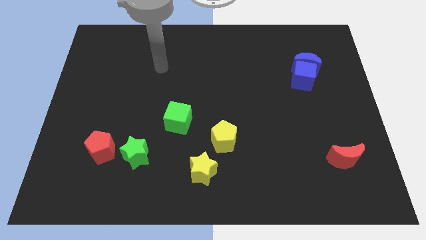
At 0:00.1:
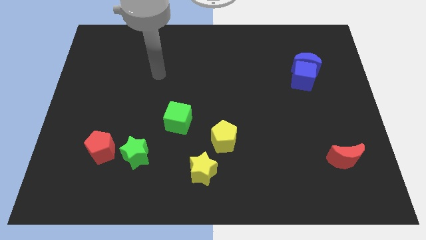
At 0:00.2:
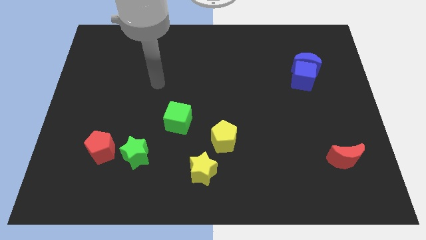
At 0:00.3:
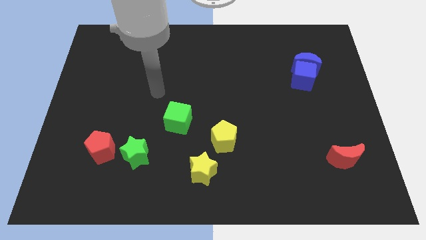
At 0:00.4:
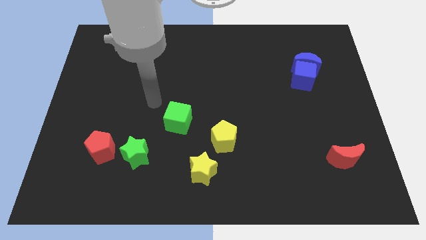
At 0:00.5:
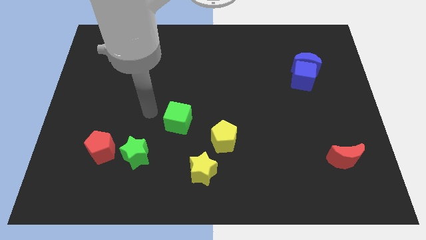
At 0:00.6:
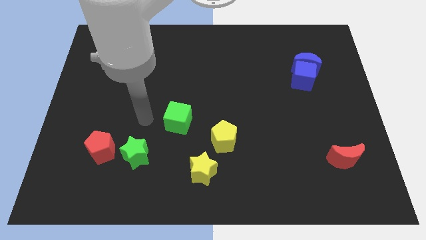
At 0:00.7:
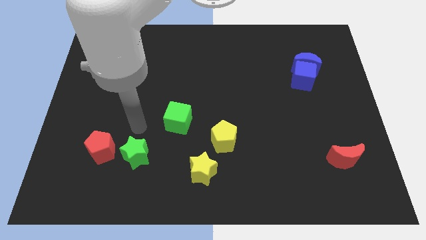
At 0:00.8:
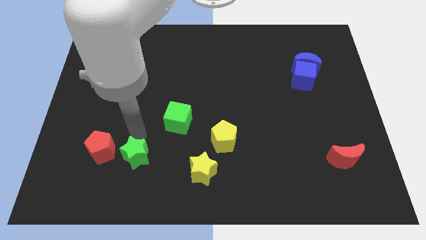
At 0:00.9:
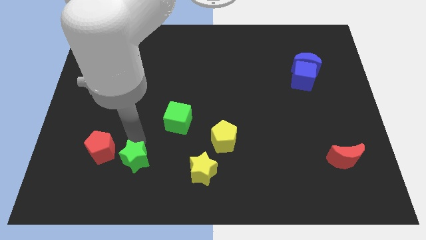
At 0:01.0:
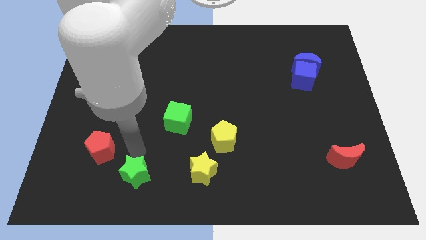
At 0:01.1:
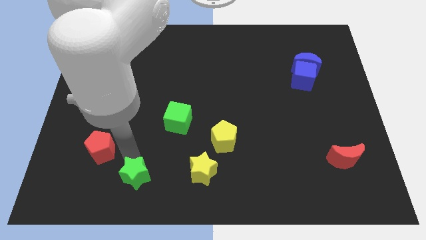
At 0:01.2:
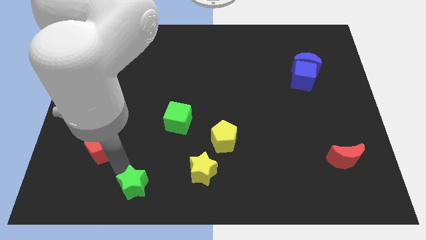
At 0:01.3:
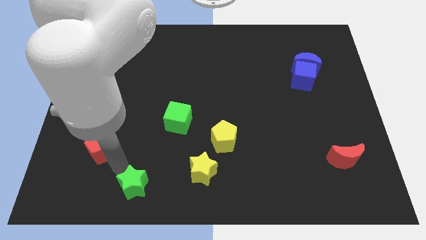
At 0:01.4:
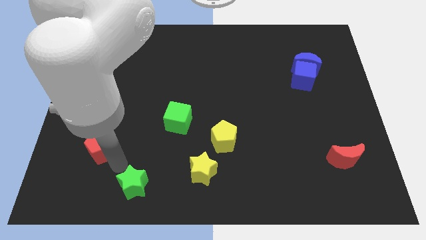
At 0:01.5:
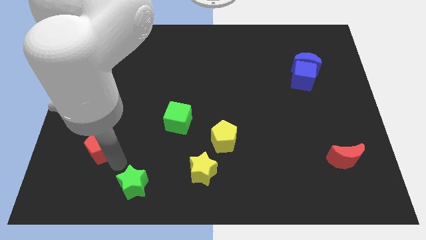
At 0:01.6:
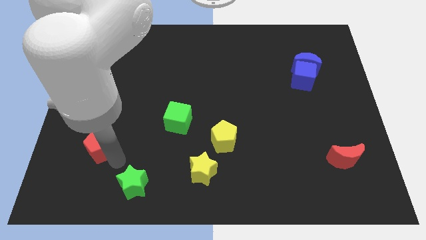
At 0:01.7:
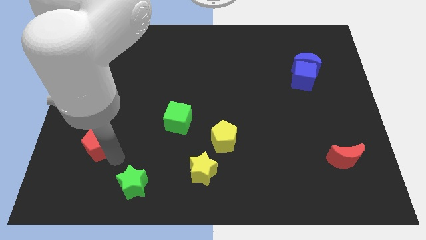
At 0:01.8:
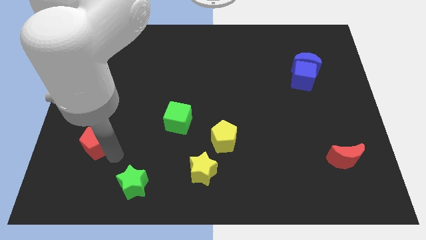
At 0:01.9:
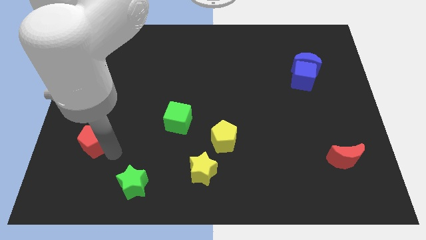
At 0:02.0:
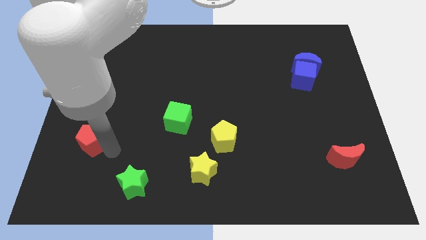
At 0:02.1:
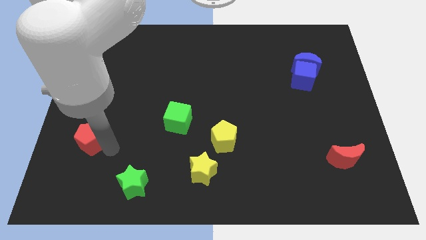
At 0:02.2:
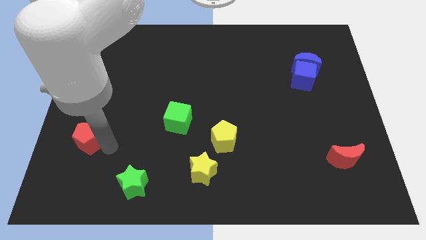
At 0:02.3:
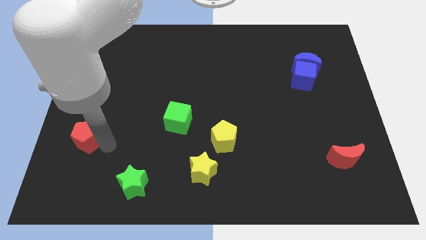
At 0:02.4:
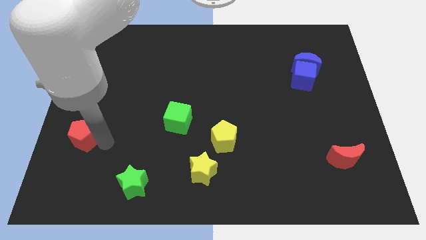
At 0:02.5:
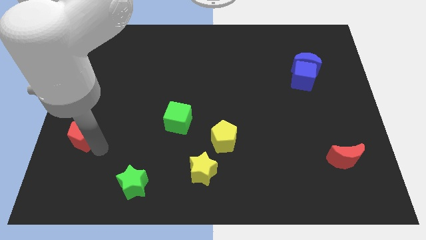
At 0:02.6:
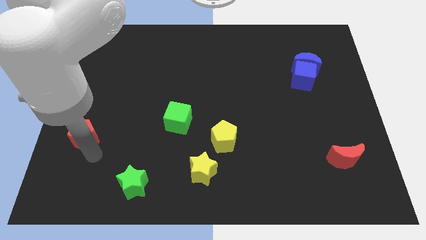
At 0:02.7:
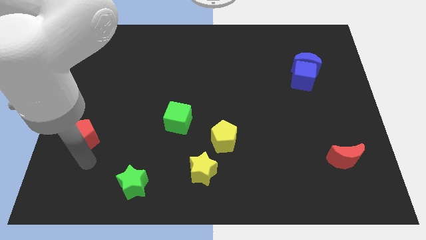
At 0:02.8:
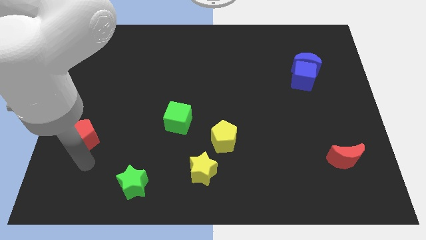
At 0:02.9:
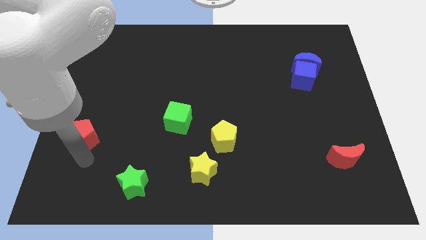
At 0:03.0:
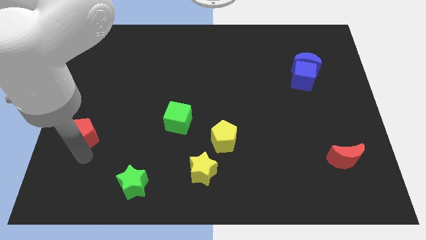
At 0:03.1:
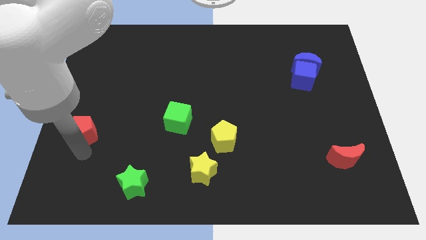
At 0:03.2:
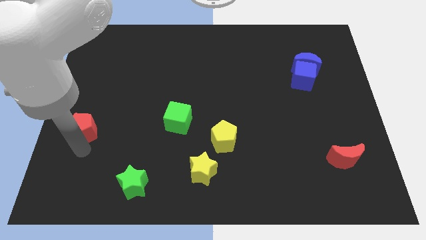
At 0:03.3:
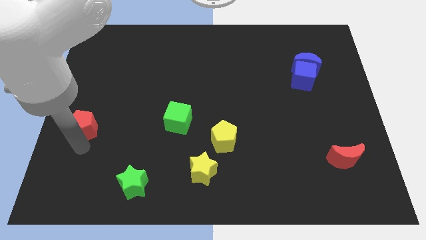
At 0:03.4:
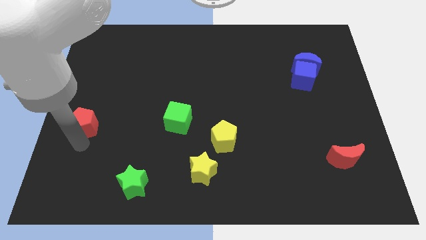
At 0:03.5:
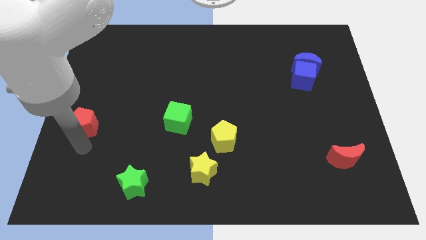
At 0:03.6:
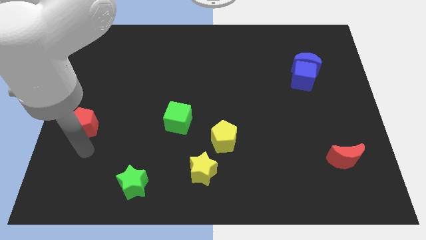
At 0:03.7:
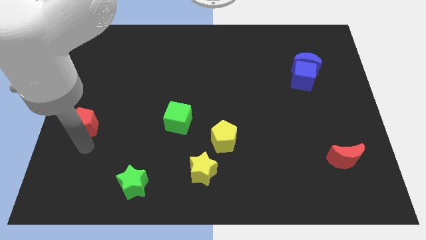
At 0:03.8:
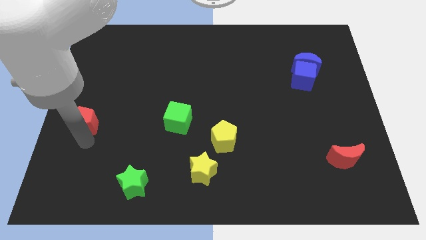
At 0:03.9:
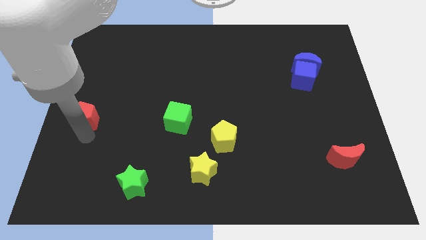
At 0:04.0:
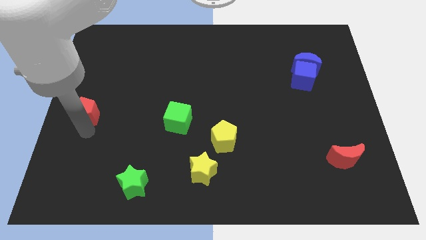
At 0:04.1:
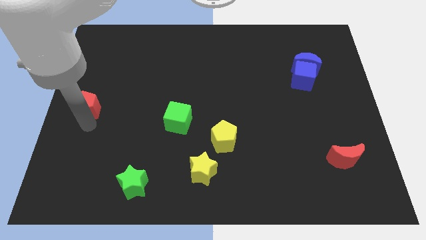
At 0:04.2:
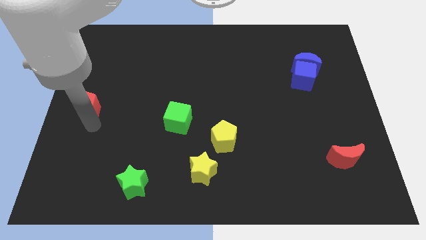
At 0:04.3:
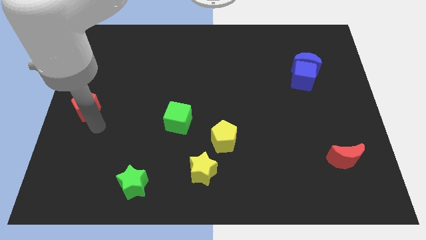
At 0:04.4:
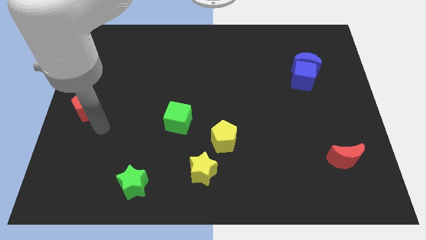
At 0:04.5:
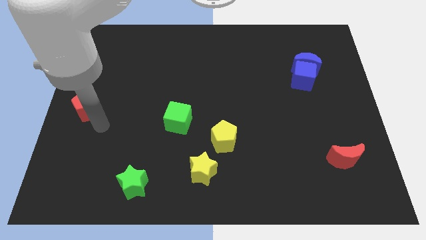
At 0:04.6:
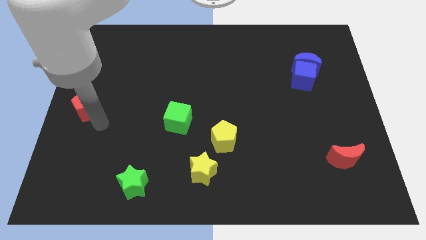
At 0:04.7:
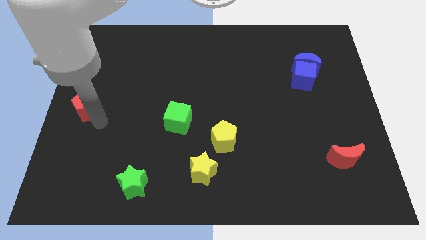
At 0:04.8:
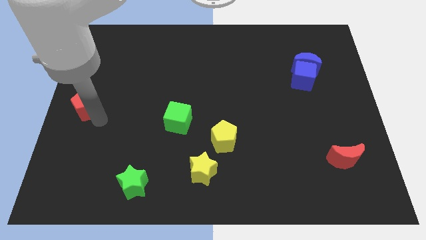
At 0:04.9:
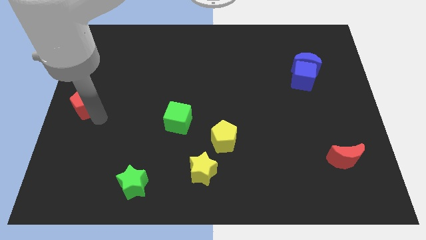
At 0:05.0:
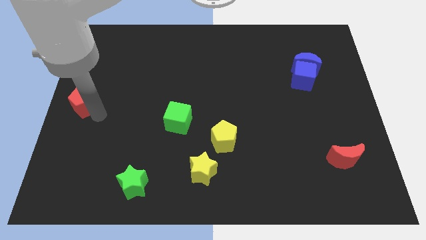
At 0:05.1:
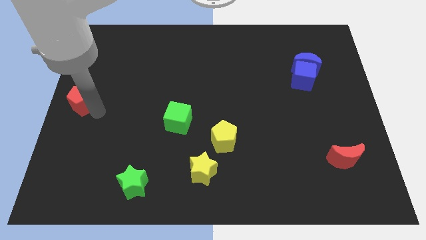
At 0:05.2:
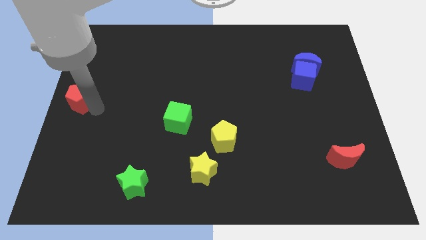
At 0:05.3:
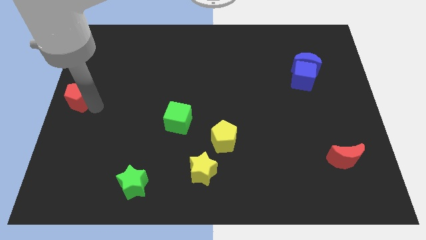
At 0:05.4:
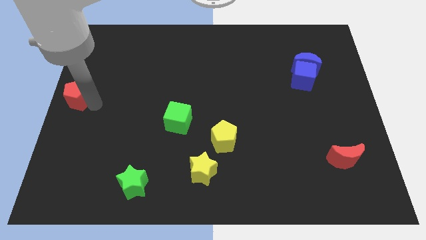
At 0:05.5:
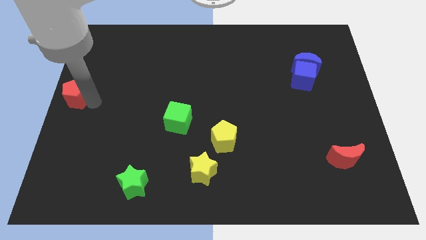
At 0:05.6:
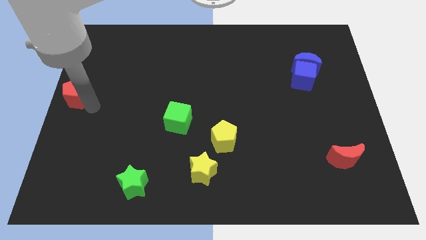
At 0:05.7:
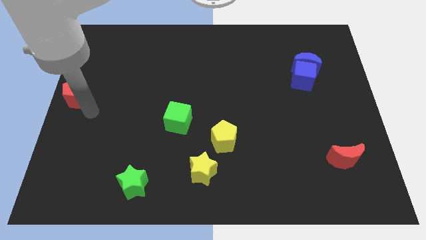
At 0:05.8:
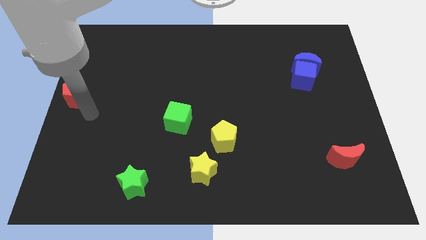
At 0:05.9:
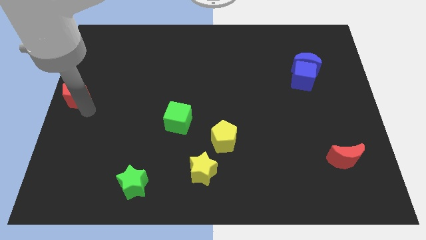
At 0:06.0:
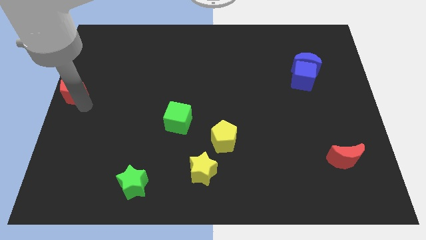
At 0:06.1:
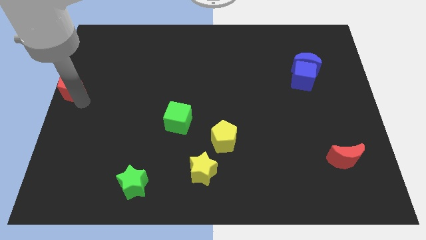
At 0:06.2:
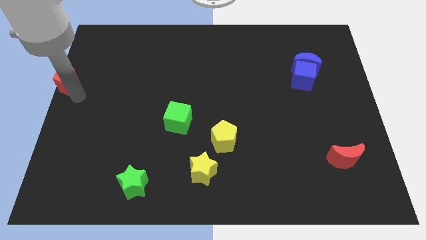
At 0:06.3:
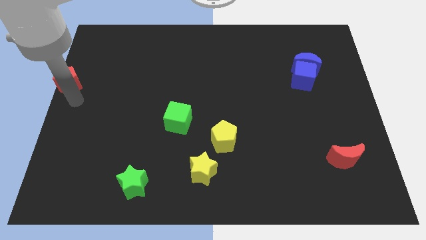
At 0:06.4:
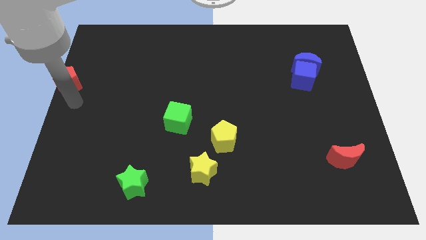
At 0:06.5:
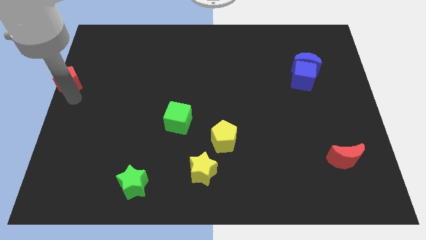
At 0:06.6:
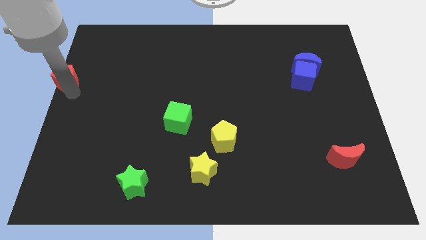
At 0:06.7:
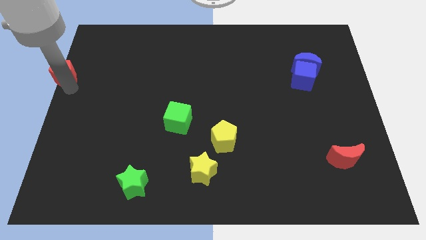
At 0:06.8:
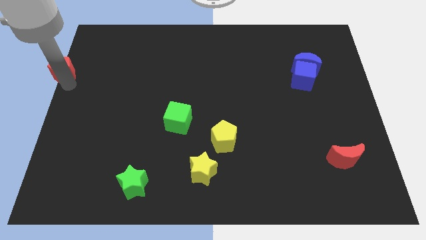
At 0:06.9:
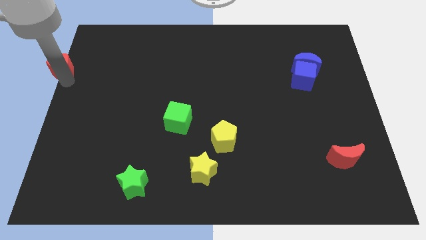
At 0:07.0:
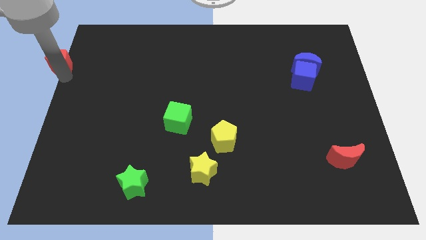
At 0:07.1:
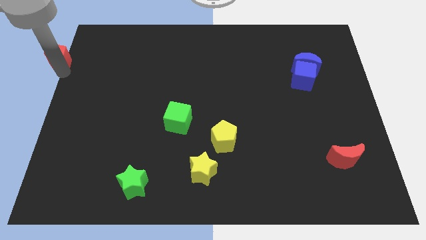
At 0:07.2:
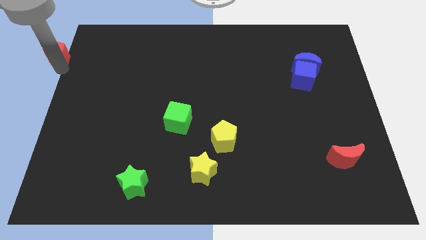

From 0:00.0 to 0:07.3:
move the red pentagon to the top left of the board
